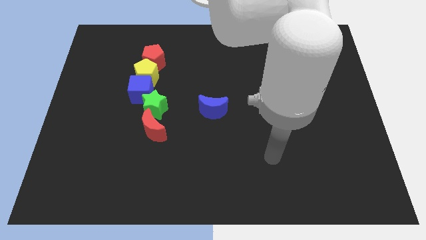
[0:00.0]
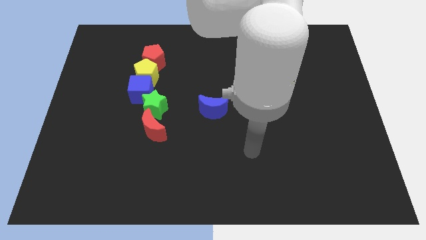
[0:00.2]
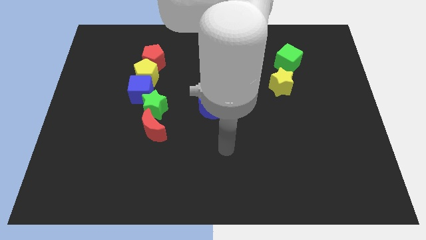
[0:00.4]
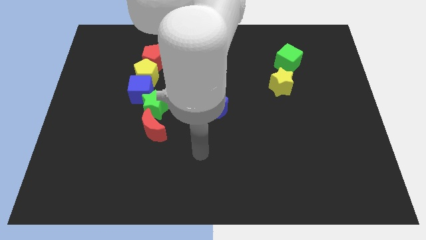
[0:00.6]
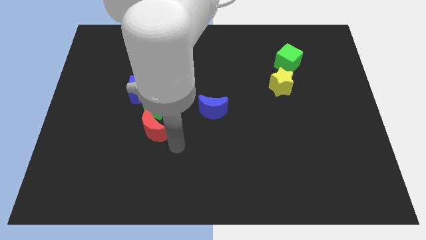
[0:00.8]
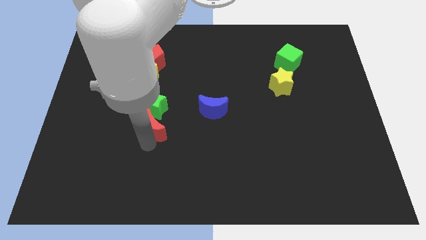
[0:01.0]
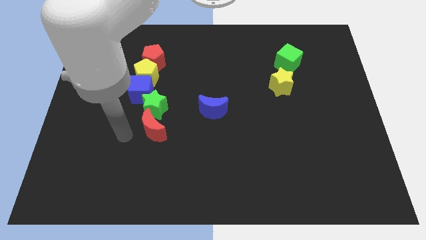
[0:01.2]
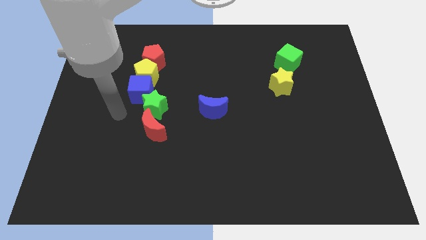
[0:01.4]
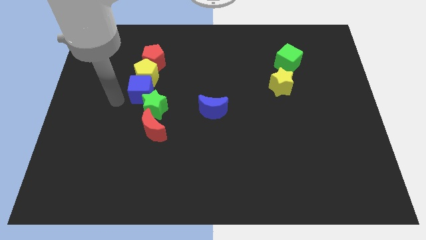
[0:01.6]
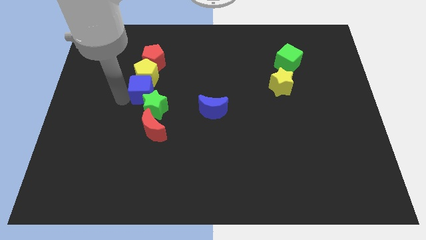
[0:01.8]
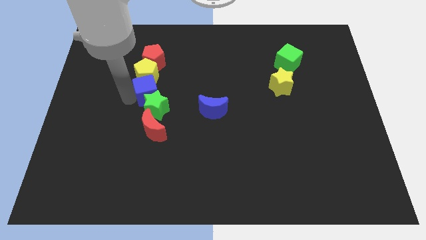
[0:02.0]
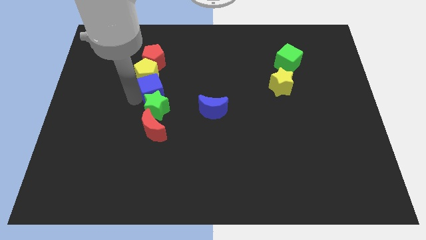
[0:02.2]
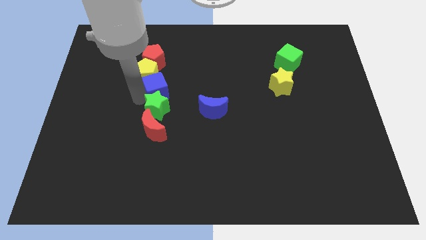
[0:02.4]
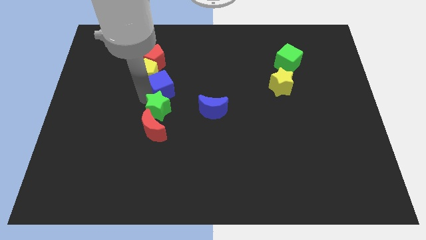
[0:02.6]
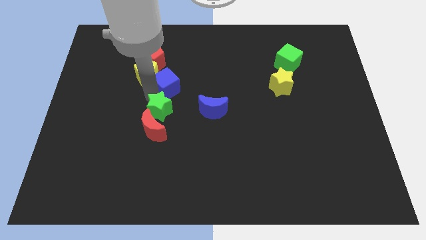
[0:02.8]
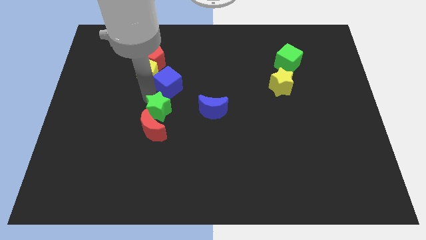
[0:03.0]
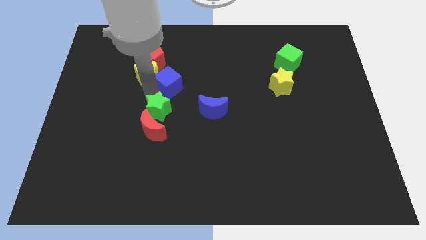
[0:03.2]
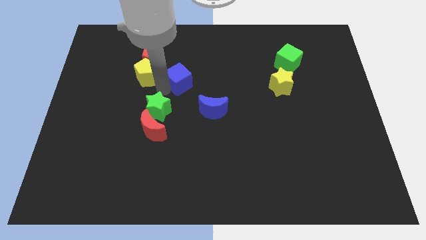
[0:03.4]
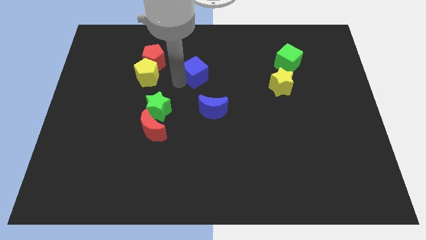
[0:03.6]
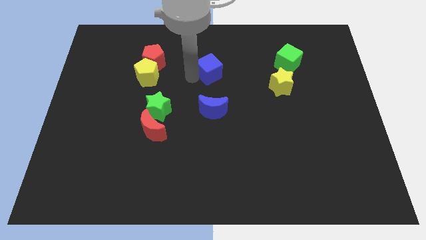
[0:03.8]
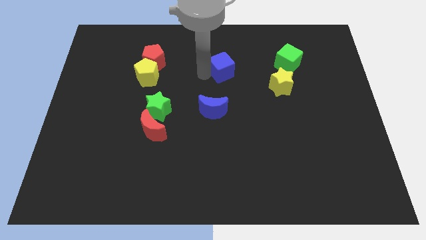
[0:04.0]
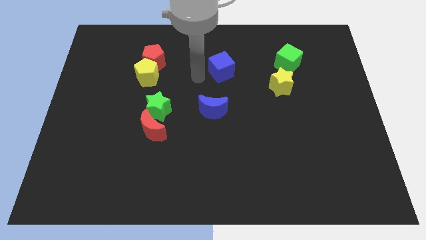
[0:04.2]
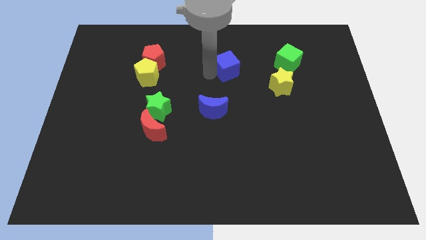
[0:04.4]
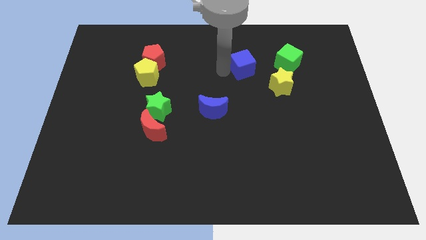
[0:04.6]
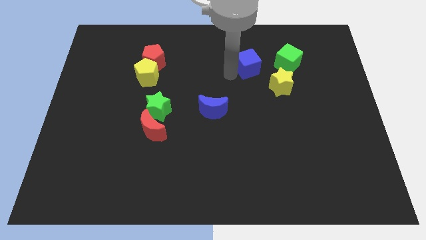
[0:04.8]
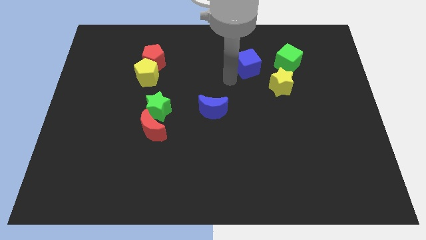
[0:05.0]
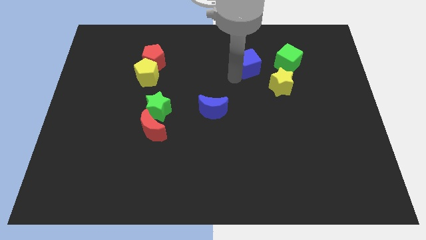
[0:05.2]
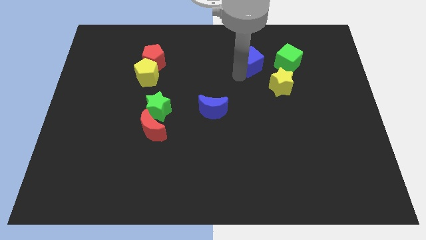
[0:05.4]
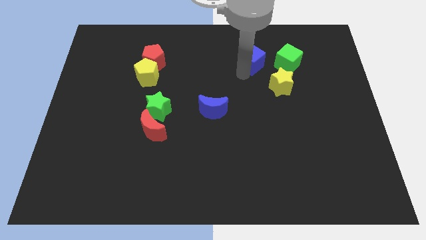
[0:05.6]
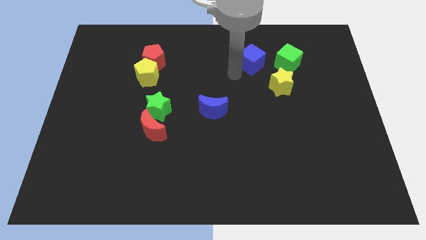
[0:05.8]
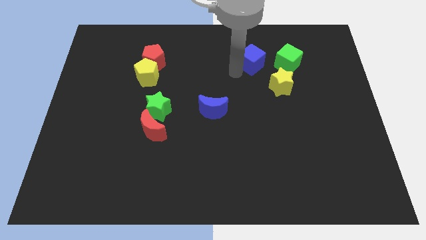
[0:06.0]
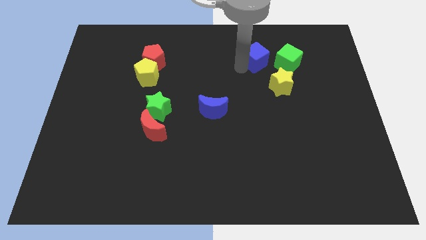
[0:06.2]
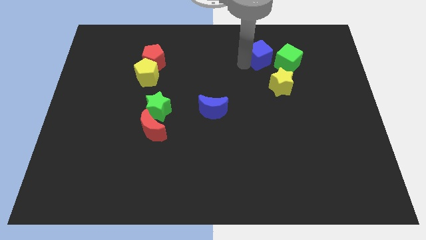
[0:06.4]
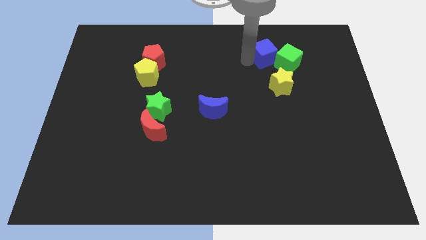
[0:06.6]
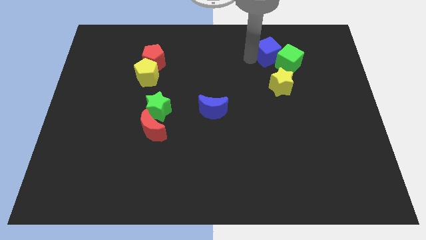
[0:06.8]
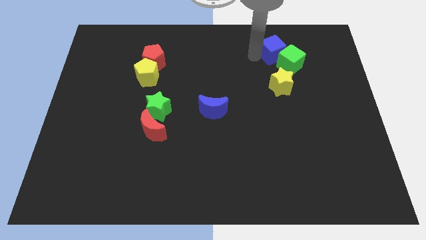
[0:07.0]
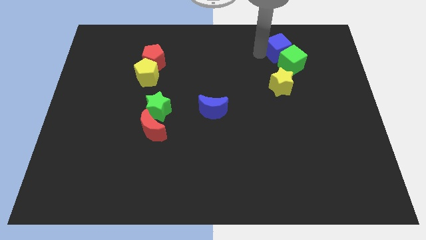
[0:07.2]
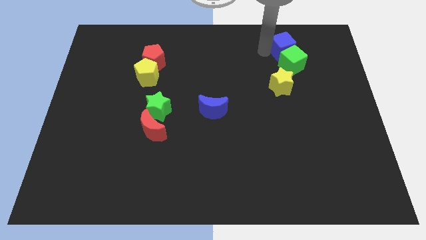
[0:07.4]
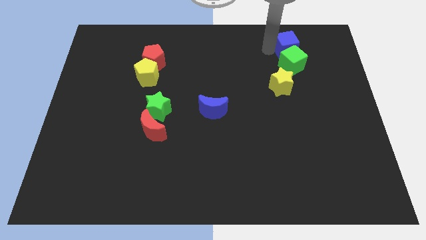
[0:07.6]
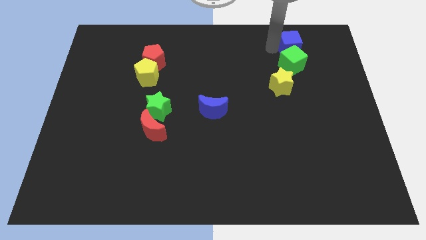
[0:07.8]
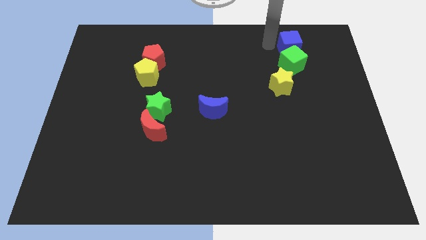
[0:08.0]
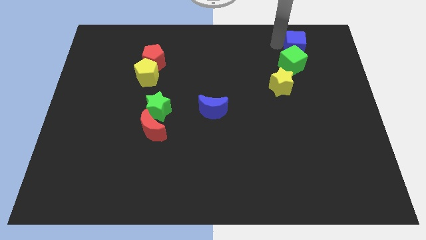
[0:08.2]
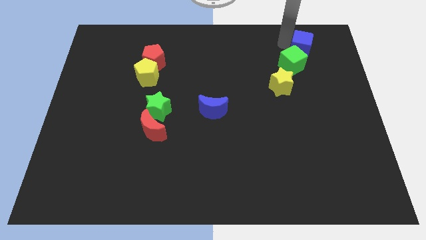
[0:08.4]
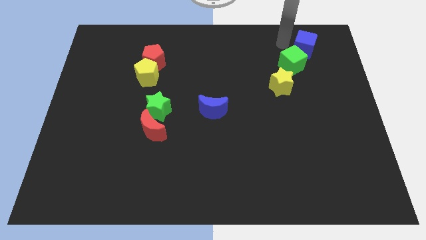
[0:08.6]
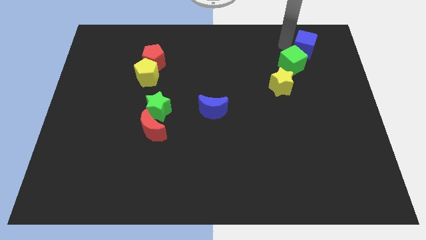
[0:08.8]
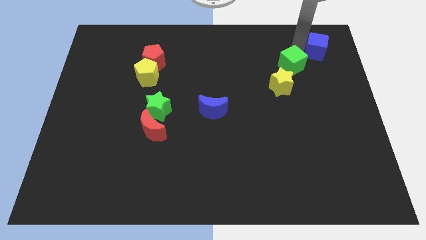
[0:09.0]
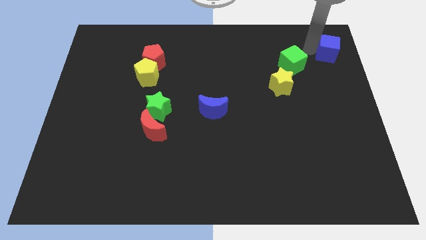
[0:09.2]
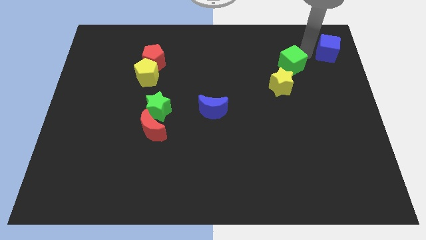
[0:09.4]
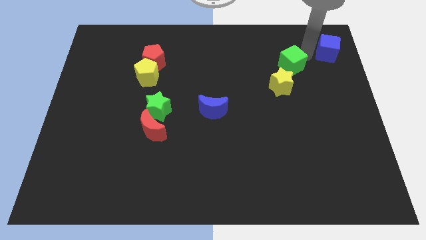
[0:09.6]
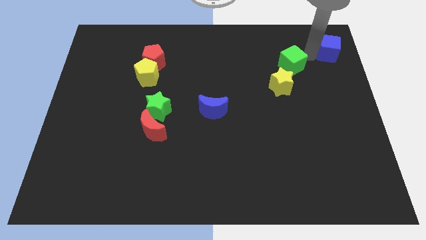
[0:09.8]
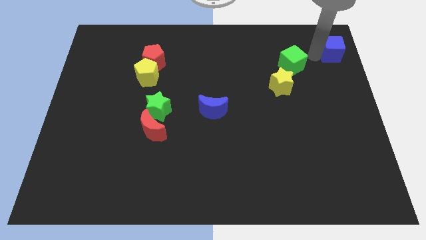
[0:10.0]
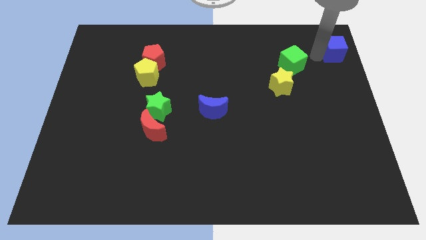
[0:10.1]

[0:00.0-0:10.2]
push the blue cube to the top right corner

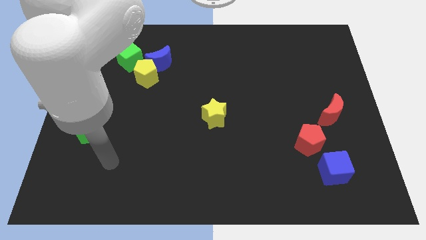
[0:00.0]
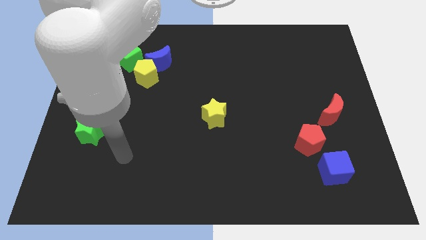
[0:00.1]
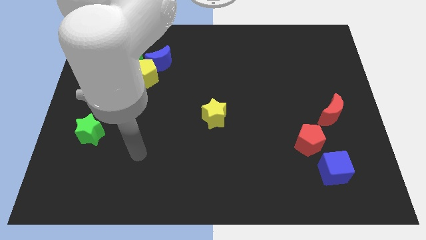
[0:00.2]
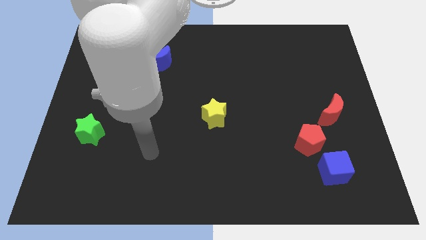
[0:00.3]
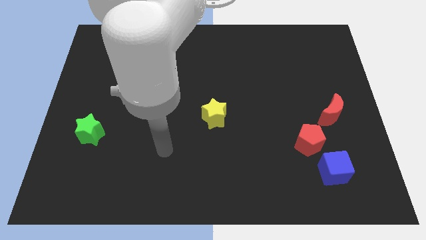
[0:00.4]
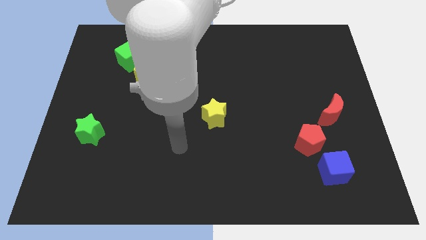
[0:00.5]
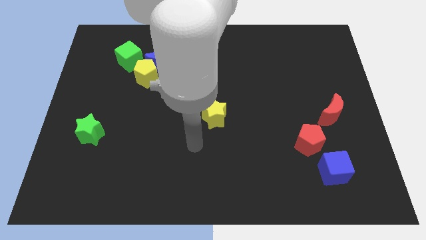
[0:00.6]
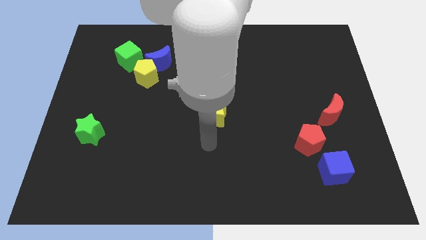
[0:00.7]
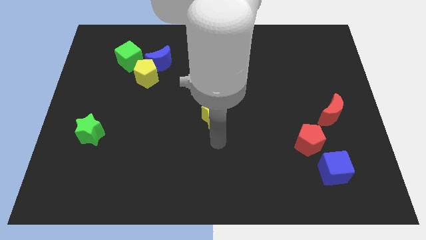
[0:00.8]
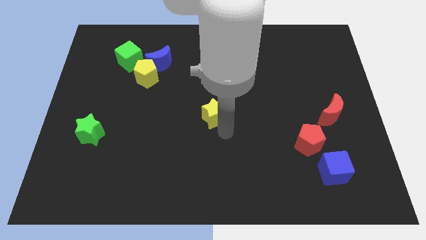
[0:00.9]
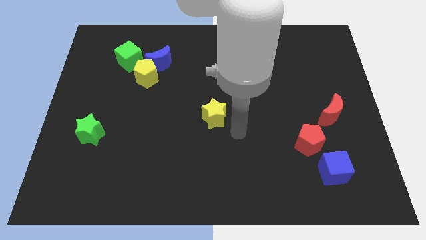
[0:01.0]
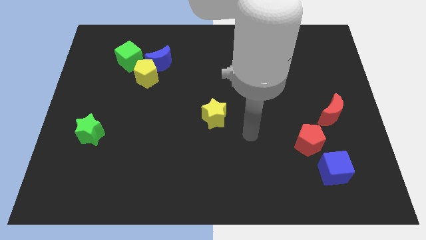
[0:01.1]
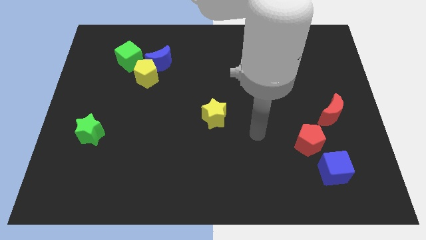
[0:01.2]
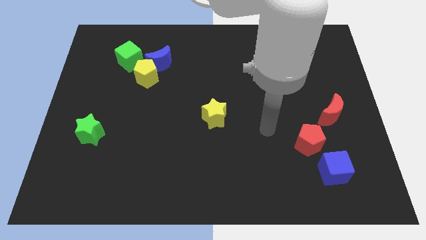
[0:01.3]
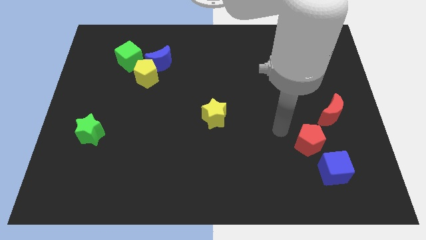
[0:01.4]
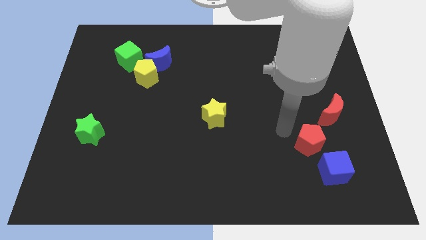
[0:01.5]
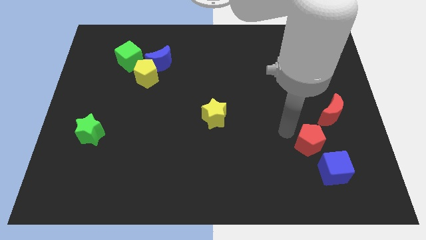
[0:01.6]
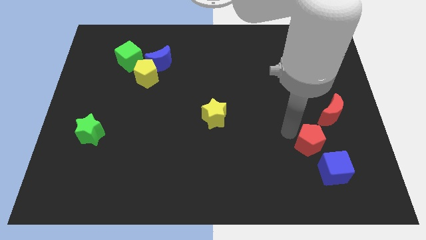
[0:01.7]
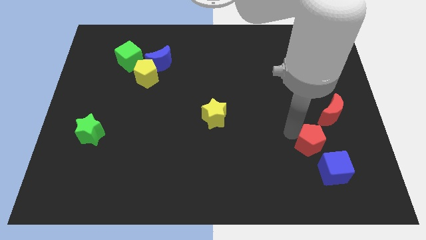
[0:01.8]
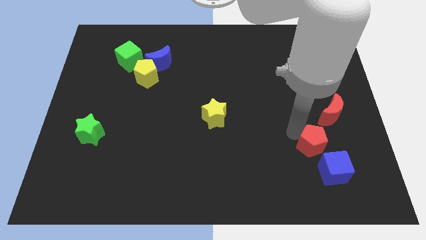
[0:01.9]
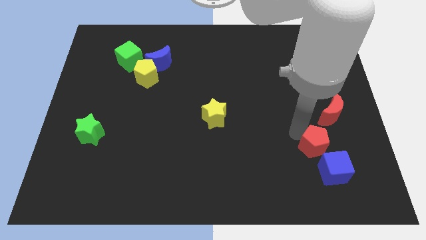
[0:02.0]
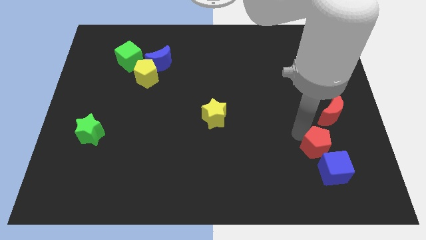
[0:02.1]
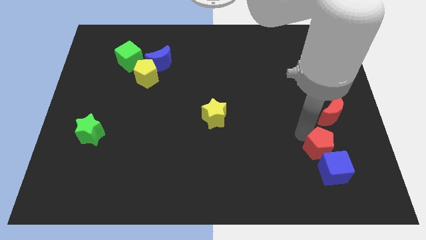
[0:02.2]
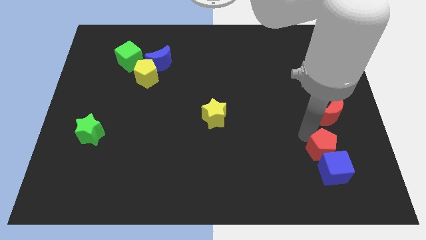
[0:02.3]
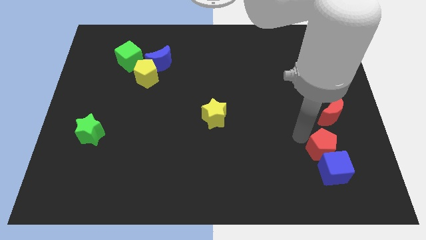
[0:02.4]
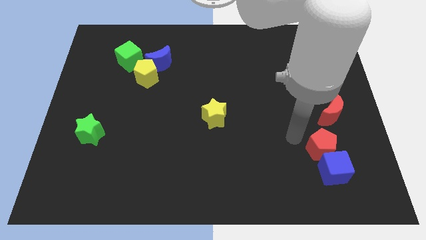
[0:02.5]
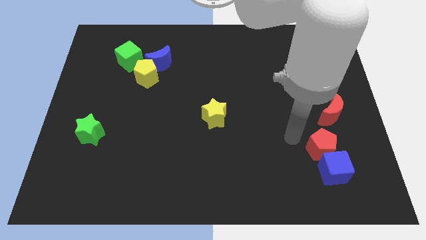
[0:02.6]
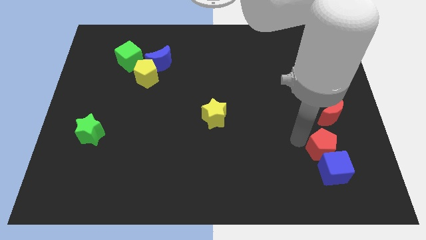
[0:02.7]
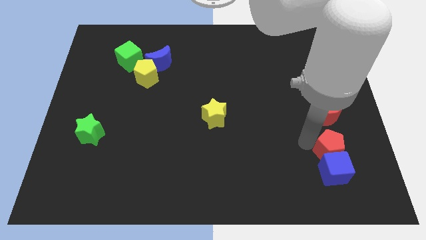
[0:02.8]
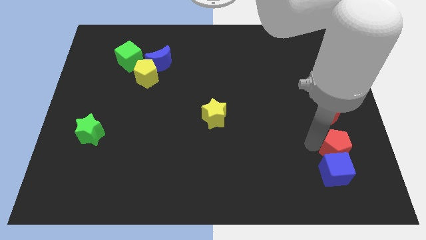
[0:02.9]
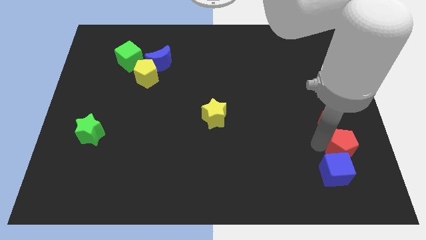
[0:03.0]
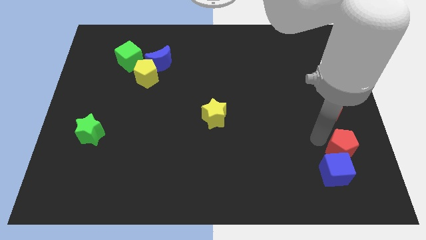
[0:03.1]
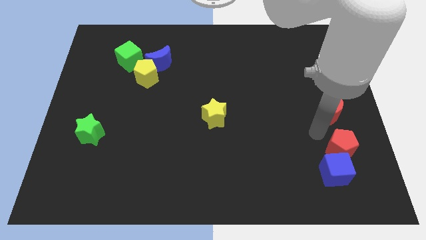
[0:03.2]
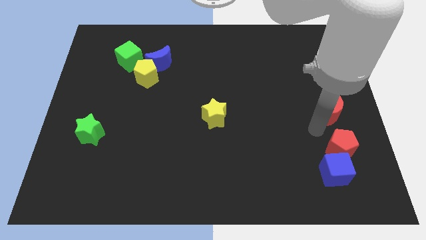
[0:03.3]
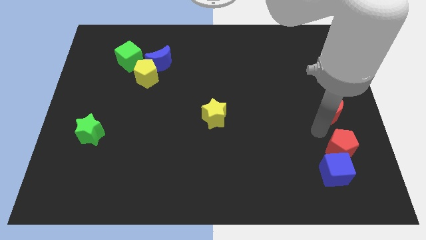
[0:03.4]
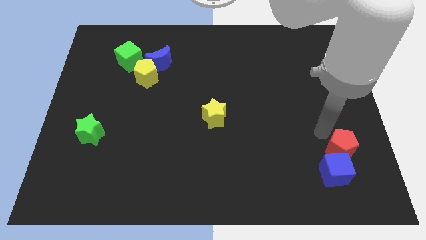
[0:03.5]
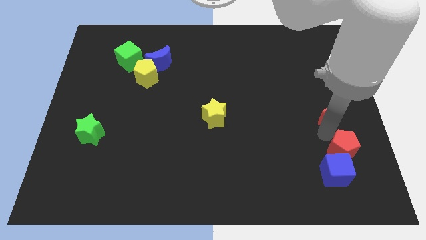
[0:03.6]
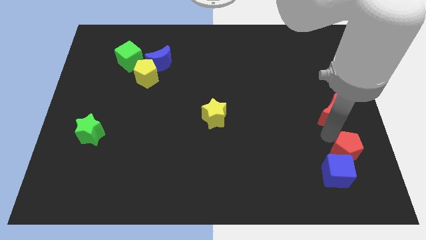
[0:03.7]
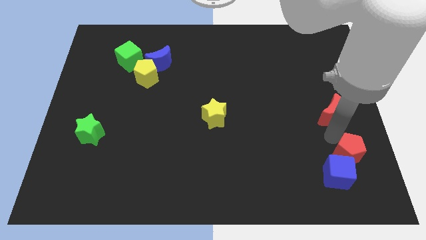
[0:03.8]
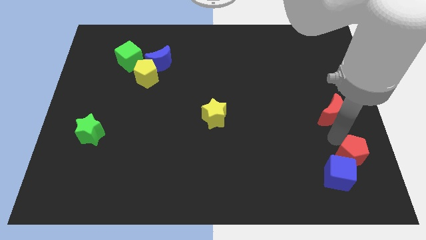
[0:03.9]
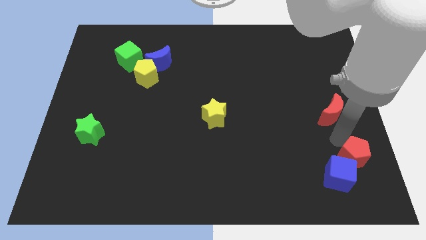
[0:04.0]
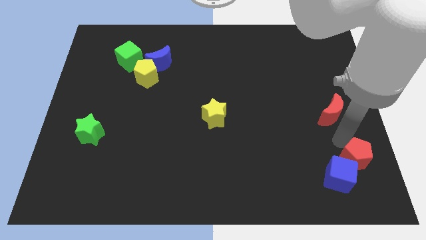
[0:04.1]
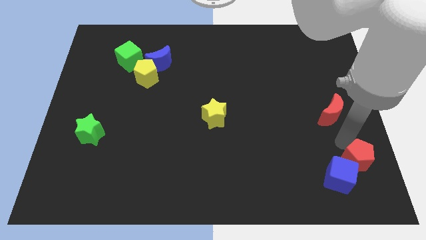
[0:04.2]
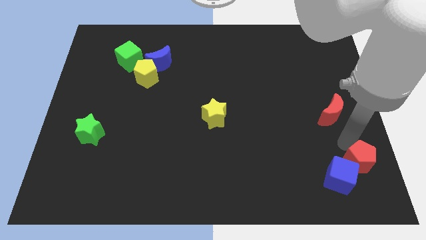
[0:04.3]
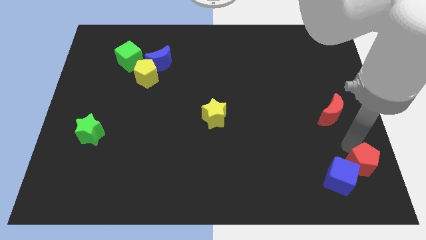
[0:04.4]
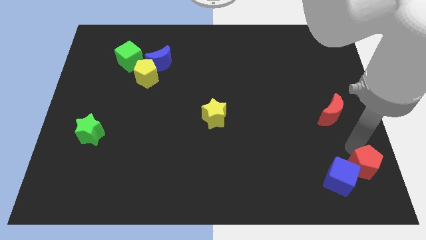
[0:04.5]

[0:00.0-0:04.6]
push the red pentagon to the bottom right corner
